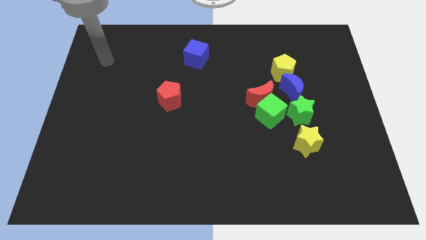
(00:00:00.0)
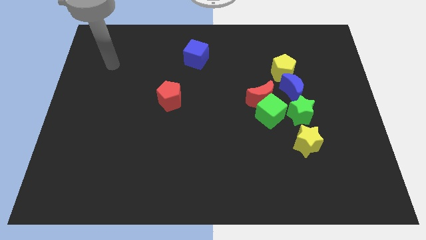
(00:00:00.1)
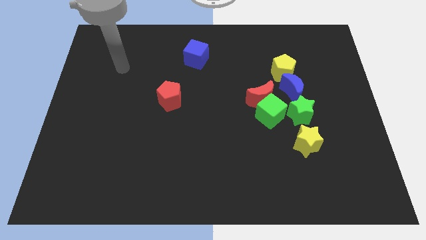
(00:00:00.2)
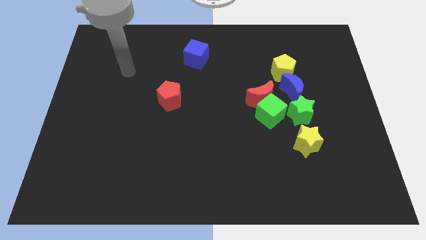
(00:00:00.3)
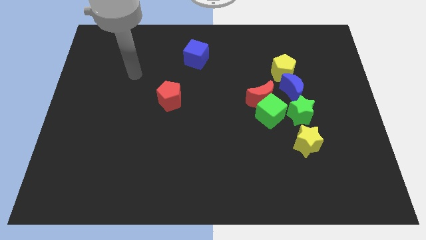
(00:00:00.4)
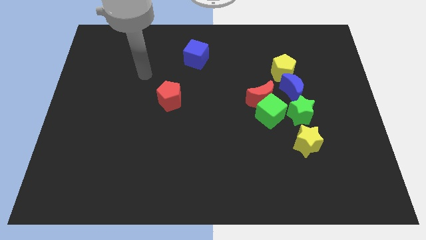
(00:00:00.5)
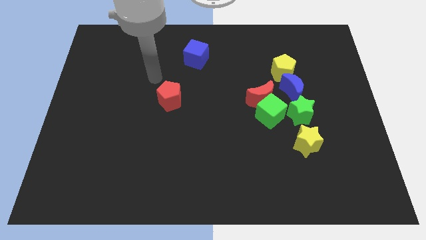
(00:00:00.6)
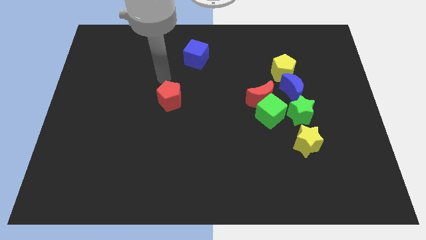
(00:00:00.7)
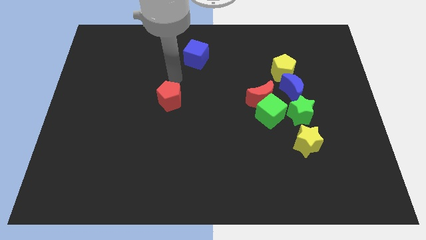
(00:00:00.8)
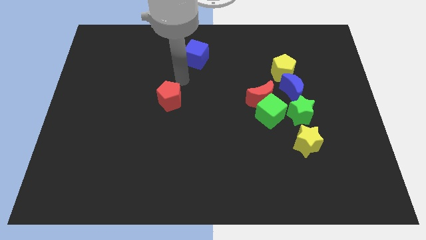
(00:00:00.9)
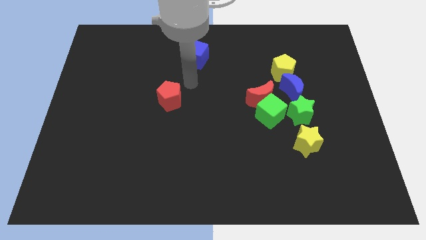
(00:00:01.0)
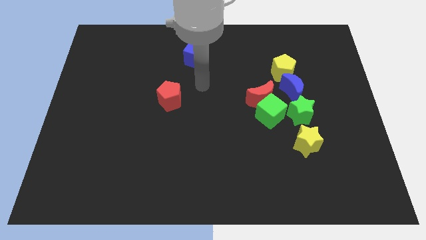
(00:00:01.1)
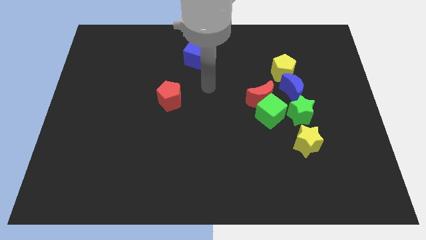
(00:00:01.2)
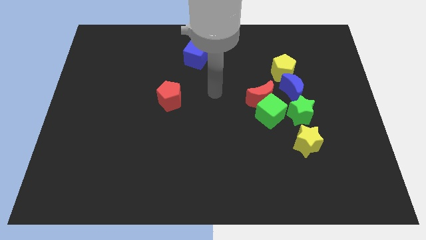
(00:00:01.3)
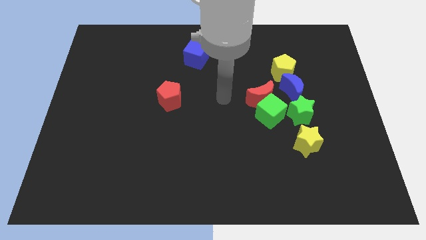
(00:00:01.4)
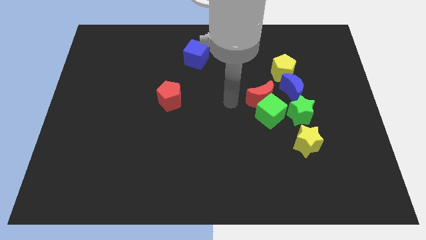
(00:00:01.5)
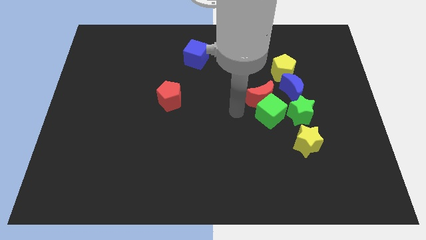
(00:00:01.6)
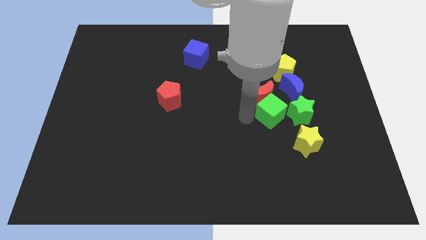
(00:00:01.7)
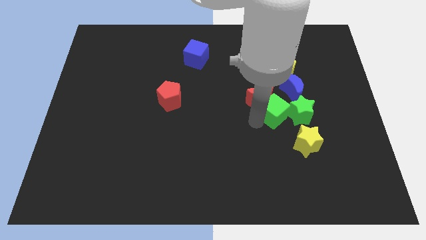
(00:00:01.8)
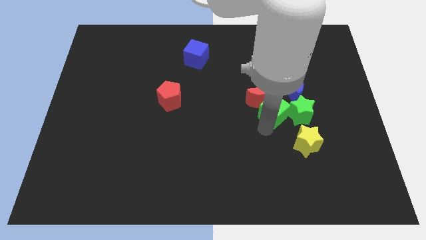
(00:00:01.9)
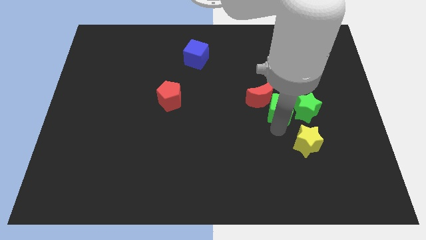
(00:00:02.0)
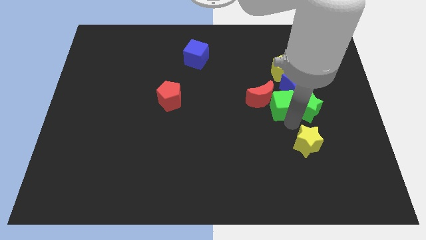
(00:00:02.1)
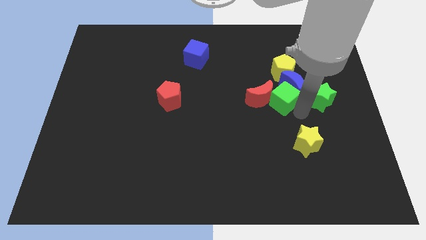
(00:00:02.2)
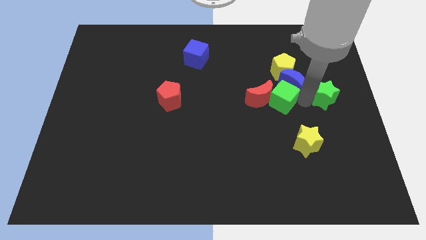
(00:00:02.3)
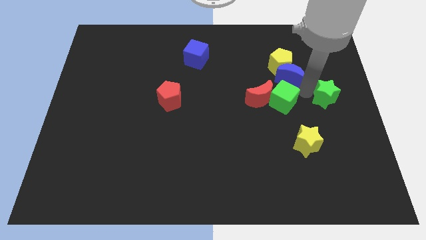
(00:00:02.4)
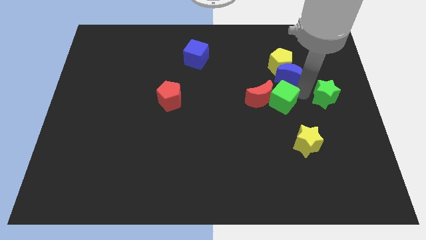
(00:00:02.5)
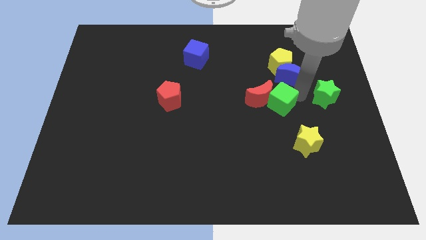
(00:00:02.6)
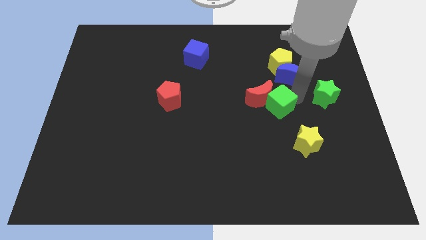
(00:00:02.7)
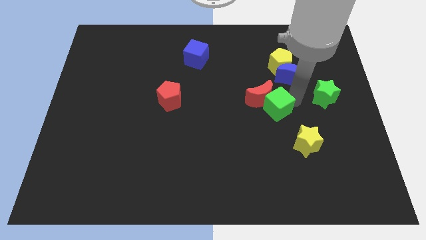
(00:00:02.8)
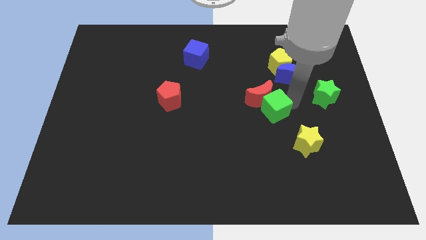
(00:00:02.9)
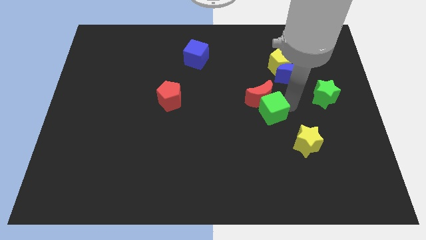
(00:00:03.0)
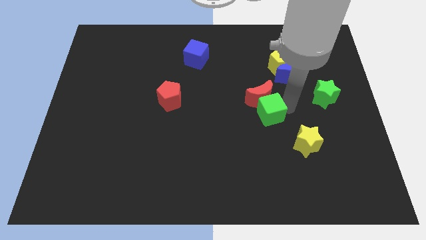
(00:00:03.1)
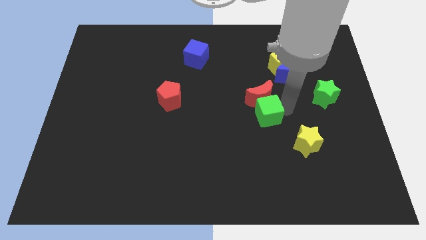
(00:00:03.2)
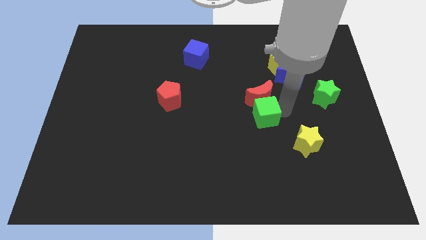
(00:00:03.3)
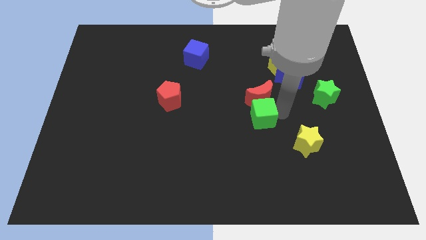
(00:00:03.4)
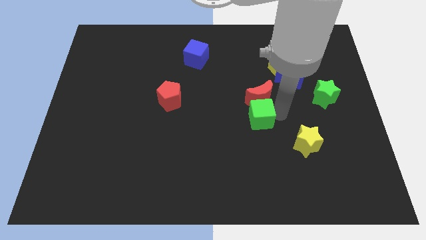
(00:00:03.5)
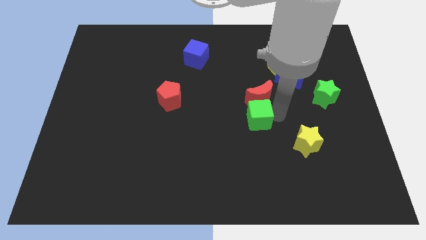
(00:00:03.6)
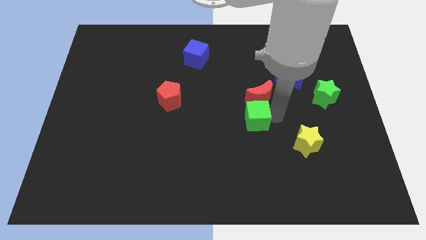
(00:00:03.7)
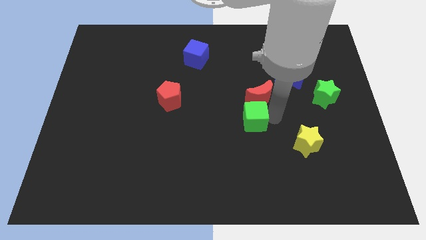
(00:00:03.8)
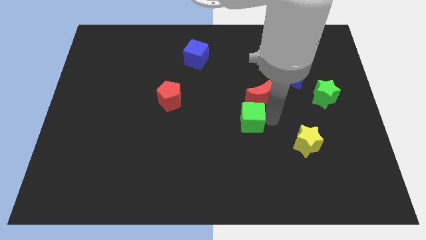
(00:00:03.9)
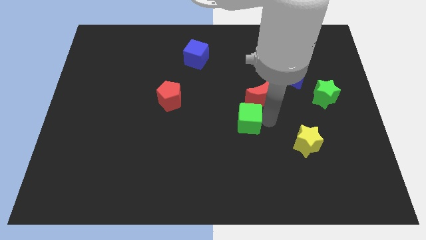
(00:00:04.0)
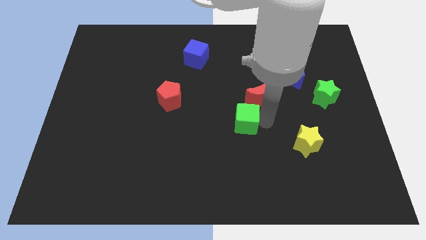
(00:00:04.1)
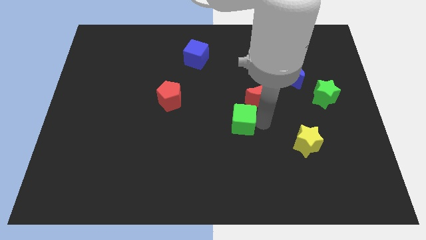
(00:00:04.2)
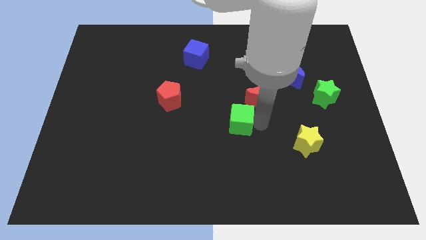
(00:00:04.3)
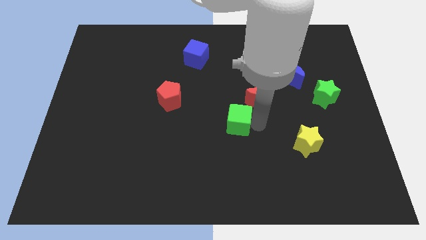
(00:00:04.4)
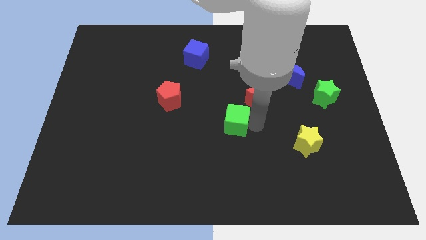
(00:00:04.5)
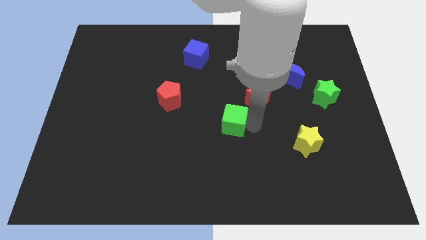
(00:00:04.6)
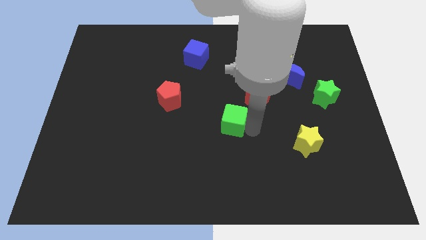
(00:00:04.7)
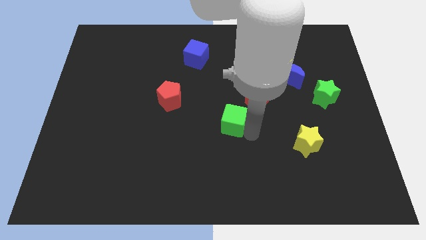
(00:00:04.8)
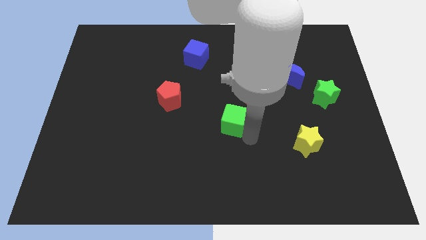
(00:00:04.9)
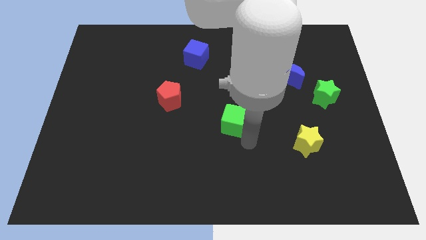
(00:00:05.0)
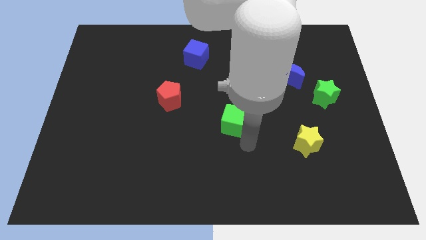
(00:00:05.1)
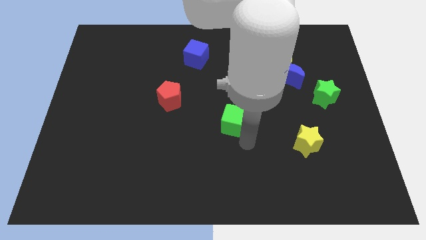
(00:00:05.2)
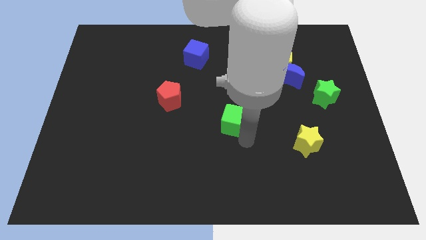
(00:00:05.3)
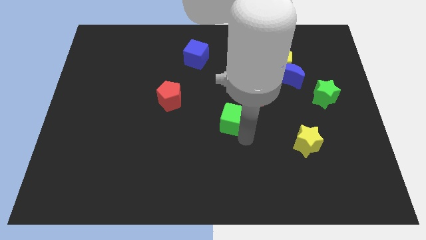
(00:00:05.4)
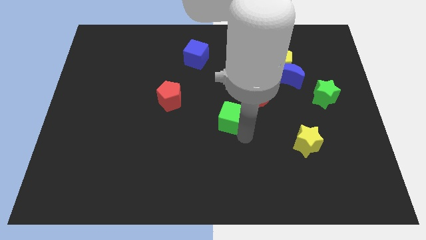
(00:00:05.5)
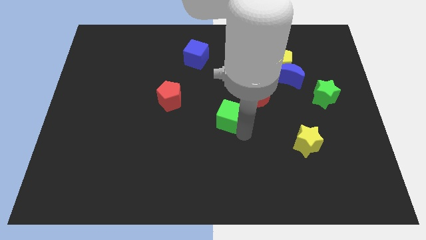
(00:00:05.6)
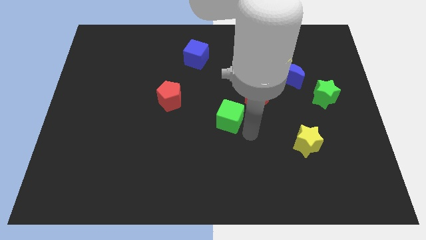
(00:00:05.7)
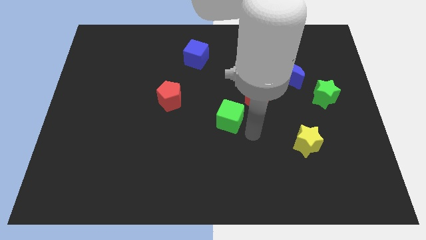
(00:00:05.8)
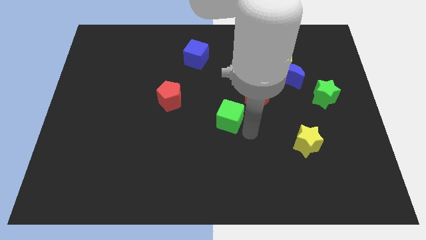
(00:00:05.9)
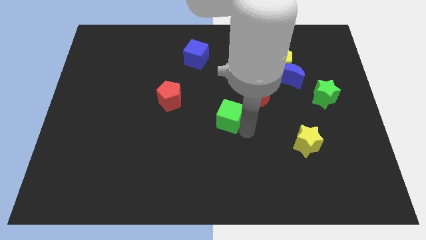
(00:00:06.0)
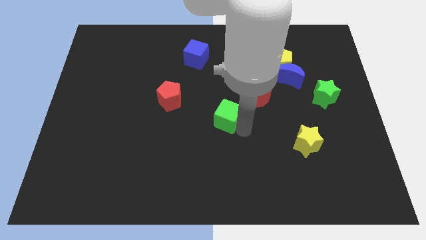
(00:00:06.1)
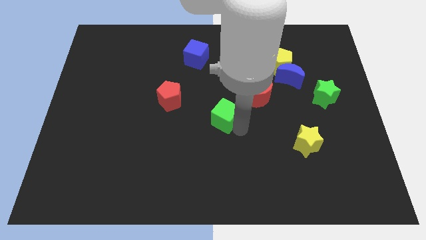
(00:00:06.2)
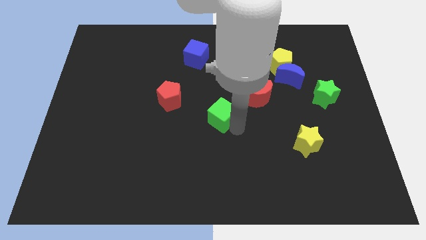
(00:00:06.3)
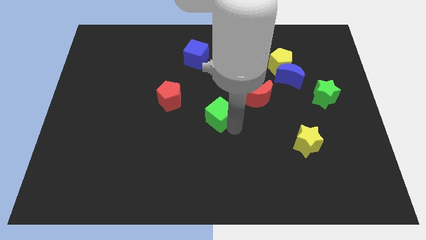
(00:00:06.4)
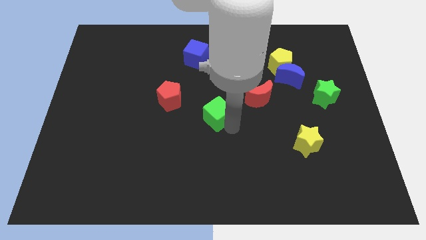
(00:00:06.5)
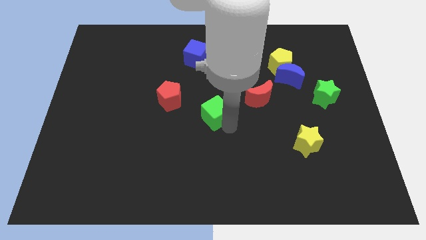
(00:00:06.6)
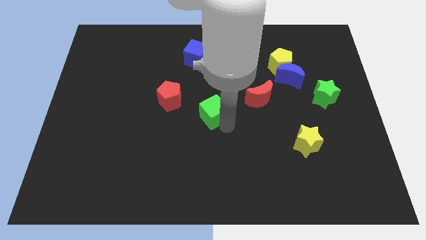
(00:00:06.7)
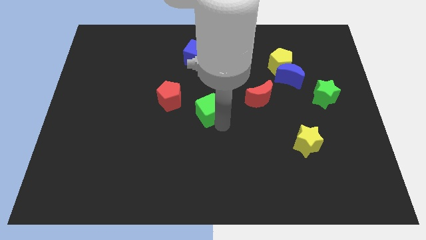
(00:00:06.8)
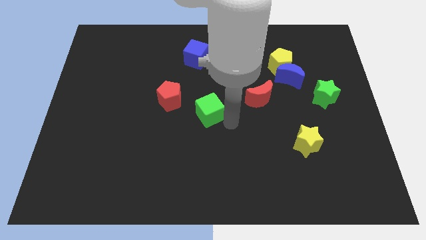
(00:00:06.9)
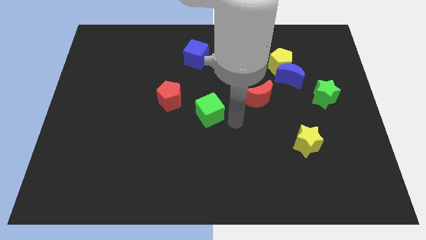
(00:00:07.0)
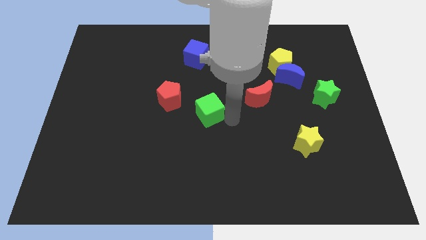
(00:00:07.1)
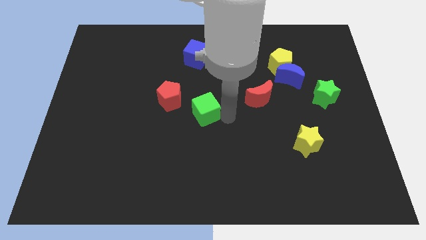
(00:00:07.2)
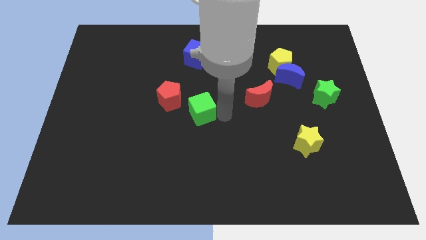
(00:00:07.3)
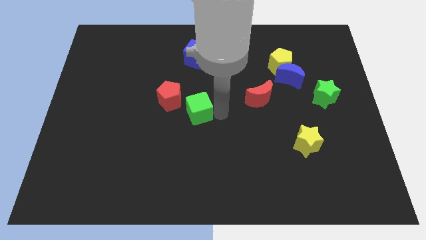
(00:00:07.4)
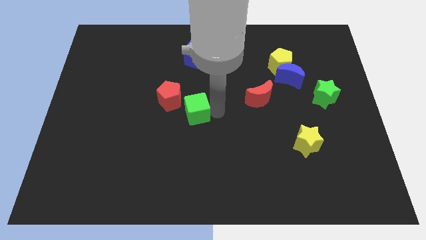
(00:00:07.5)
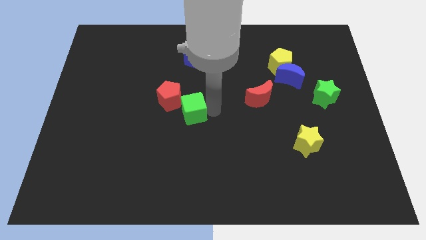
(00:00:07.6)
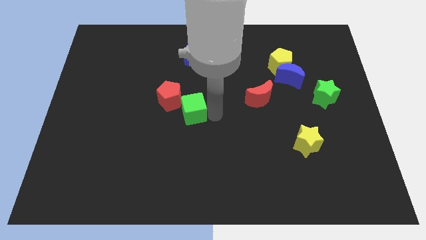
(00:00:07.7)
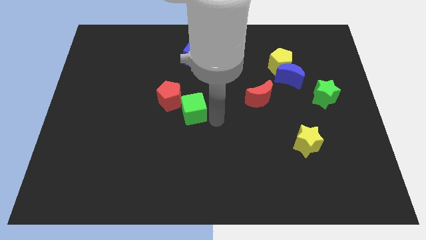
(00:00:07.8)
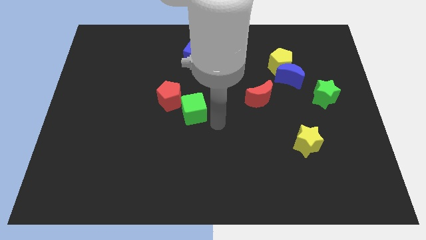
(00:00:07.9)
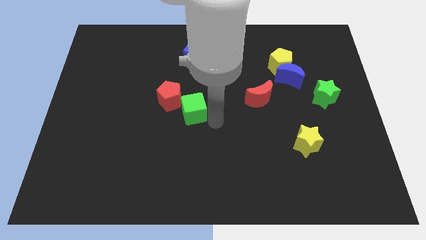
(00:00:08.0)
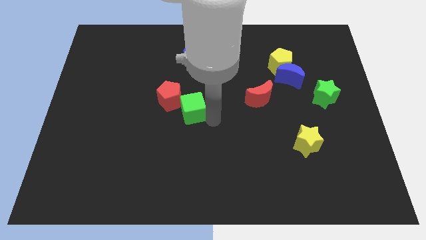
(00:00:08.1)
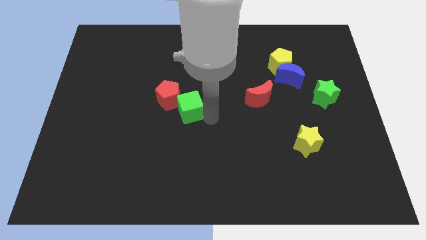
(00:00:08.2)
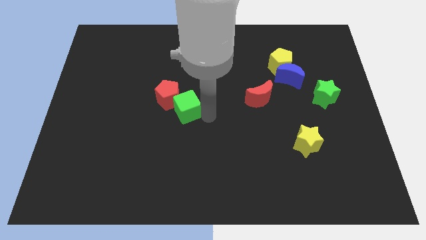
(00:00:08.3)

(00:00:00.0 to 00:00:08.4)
move the green cube towards the red pentagon
